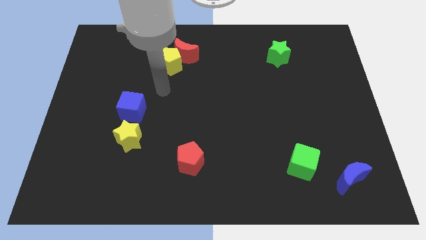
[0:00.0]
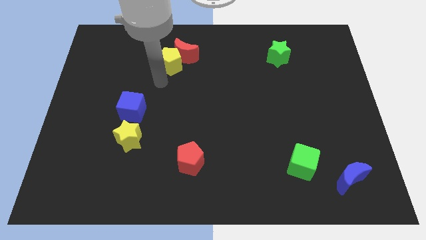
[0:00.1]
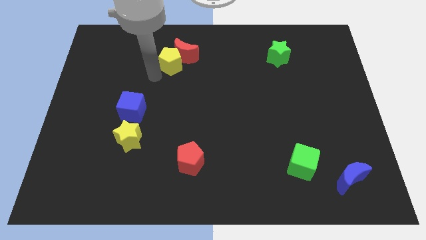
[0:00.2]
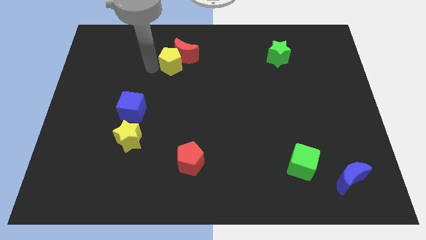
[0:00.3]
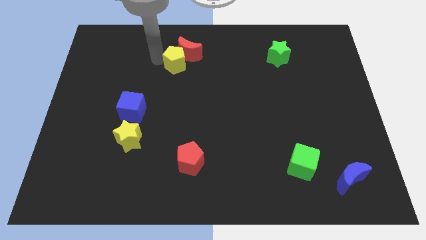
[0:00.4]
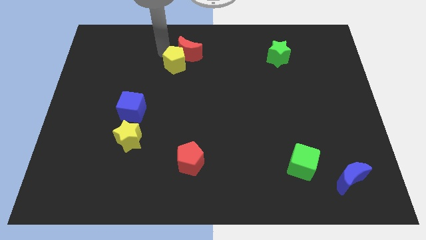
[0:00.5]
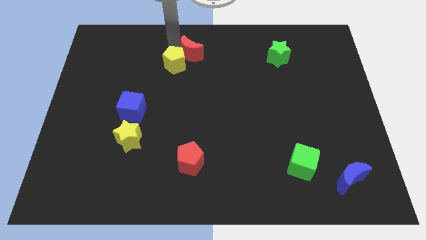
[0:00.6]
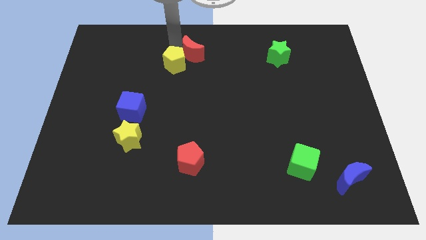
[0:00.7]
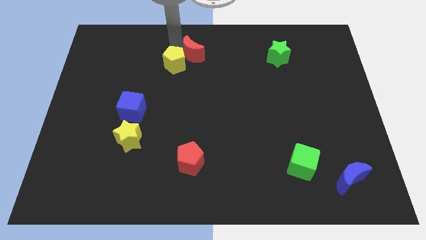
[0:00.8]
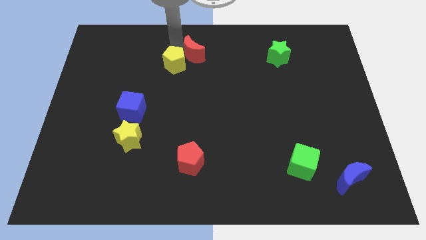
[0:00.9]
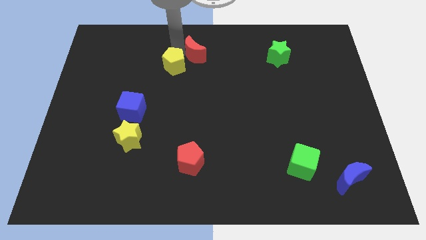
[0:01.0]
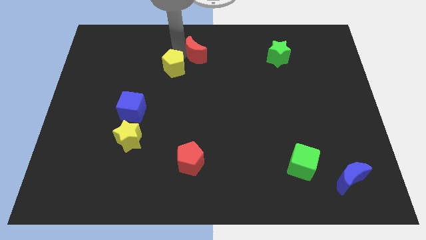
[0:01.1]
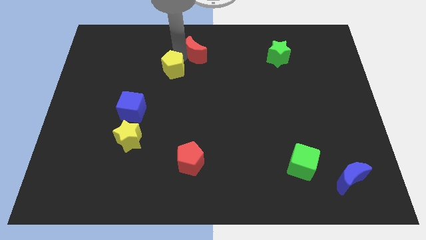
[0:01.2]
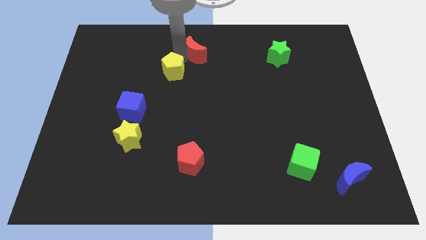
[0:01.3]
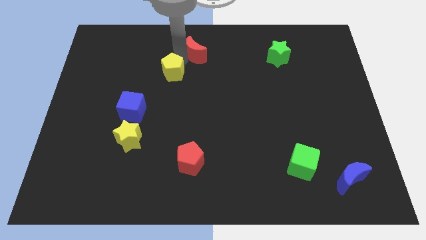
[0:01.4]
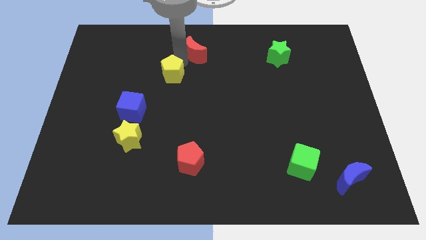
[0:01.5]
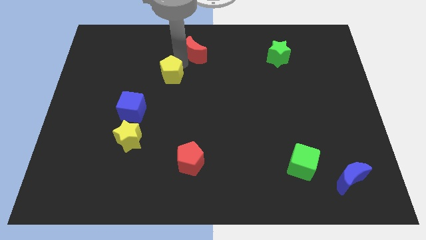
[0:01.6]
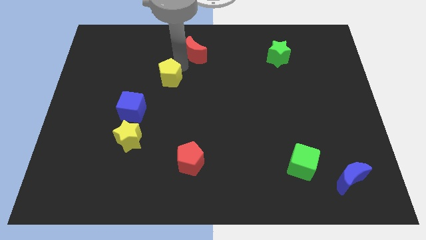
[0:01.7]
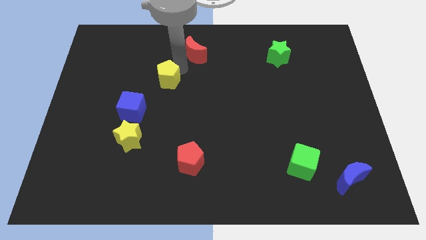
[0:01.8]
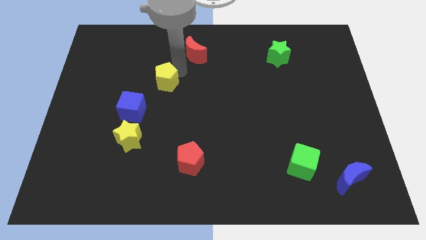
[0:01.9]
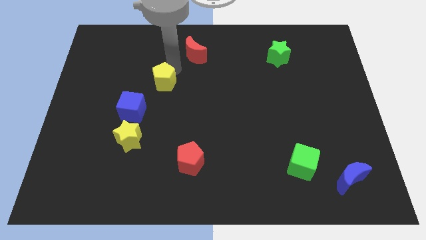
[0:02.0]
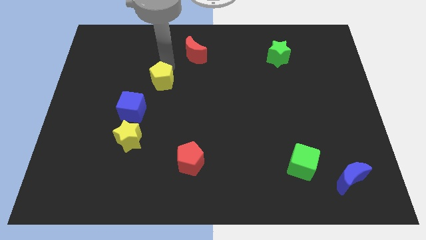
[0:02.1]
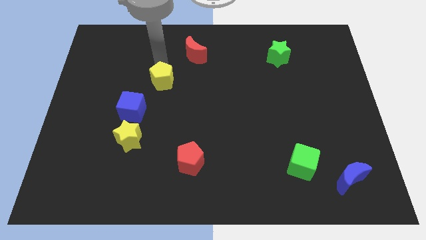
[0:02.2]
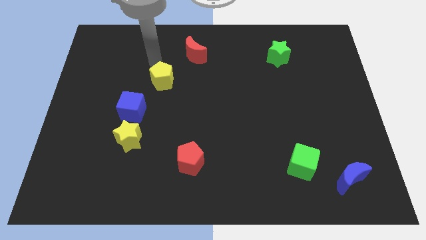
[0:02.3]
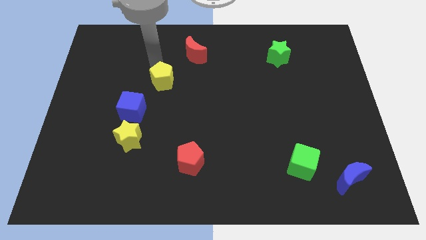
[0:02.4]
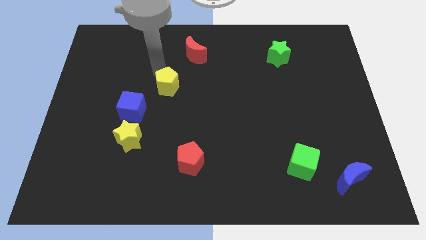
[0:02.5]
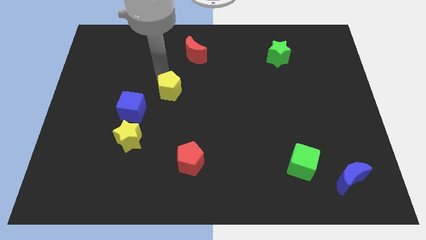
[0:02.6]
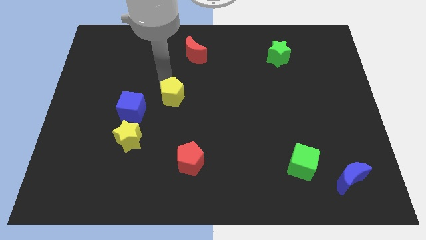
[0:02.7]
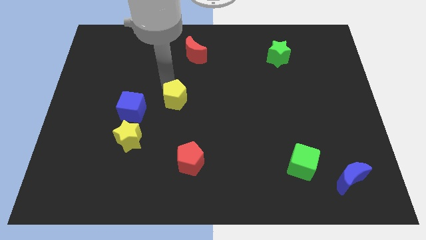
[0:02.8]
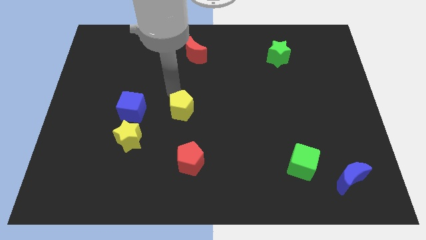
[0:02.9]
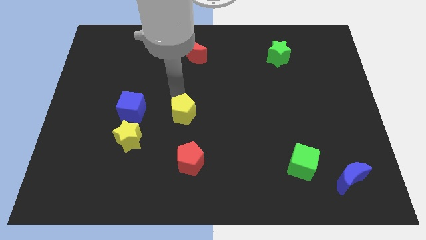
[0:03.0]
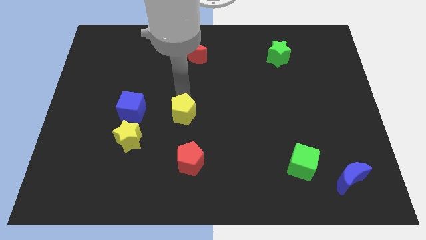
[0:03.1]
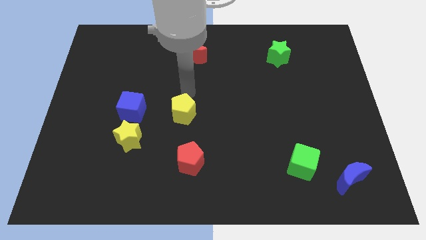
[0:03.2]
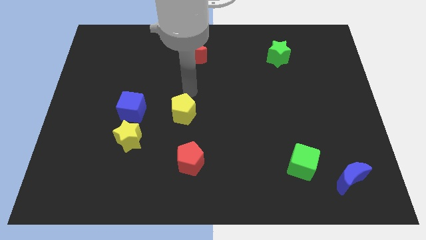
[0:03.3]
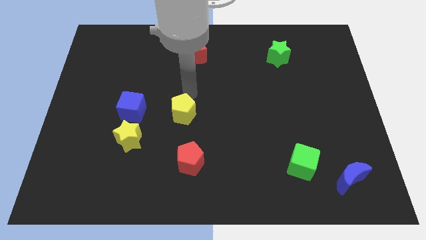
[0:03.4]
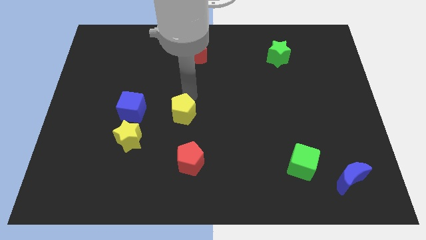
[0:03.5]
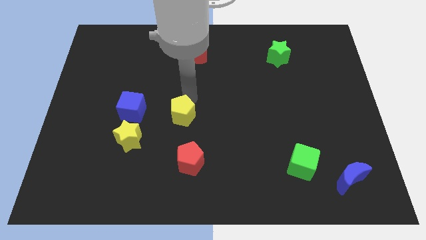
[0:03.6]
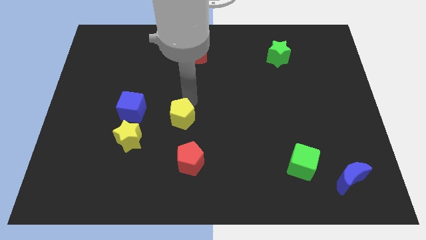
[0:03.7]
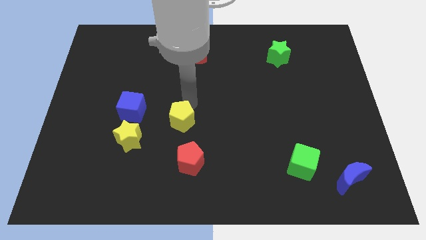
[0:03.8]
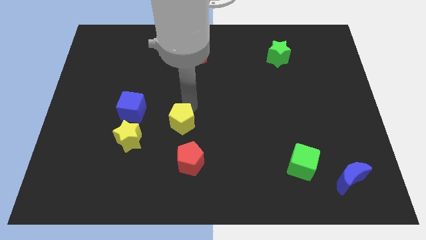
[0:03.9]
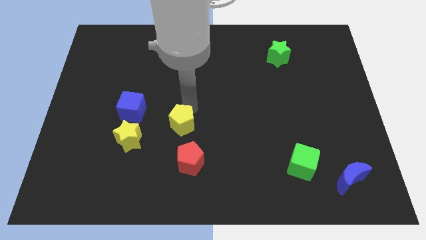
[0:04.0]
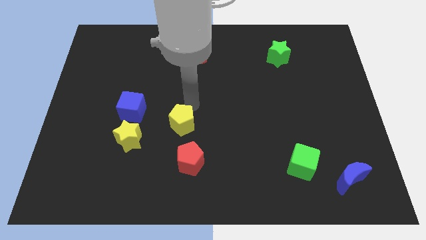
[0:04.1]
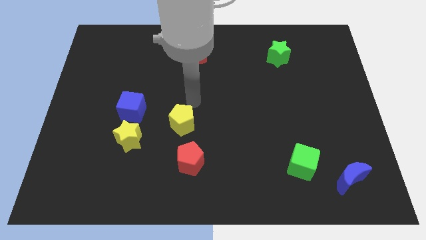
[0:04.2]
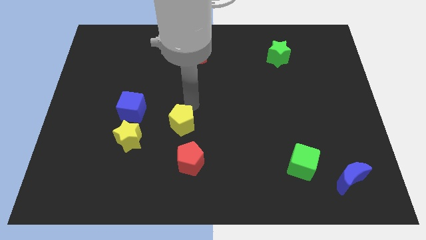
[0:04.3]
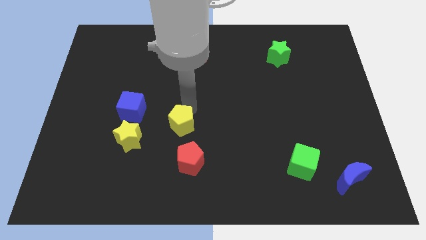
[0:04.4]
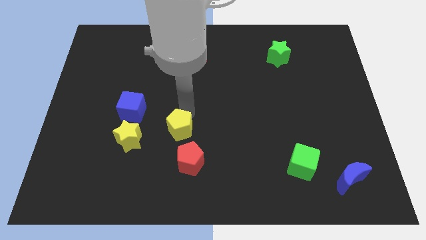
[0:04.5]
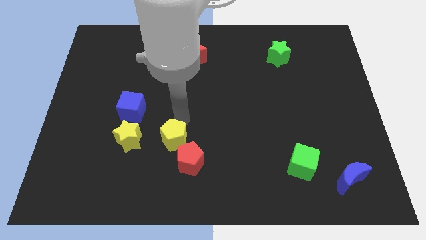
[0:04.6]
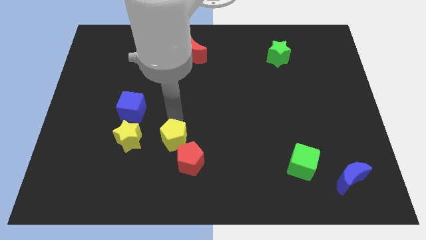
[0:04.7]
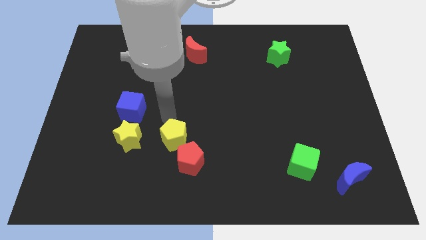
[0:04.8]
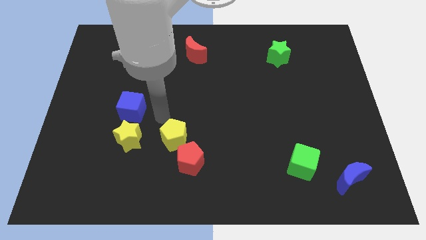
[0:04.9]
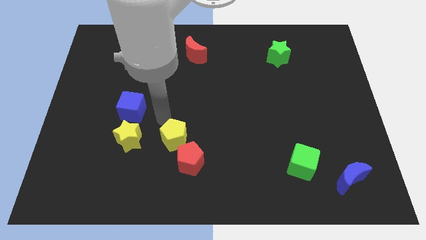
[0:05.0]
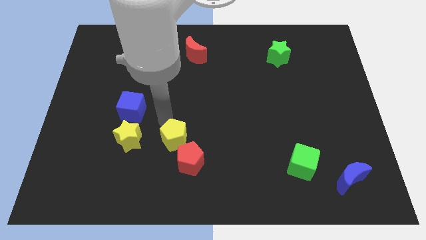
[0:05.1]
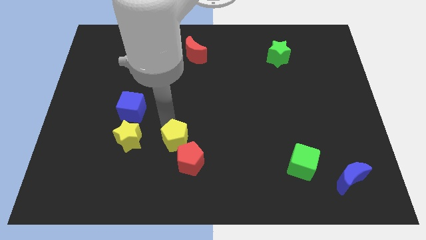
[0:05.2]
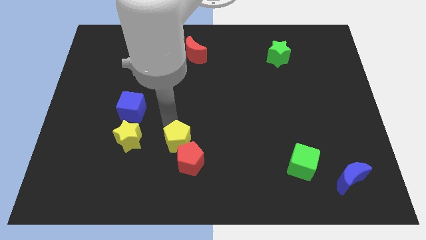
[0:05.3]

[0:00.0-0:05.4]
move the yellow pentagon close to the red pentagon
